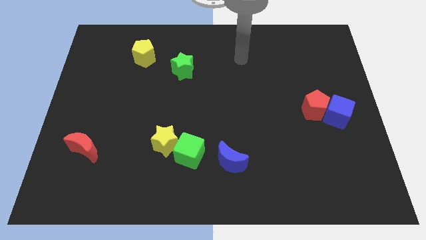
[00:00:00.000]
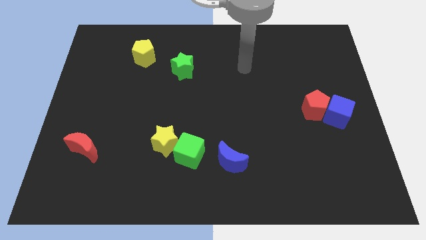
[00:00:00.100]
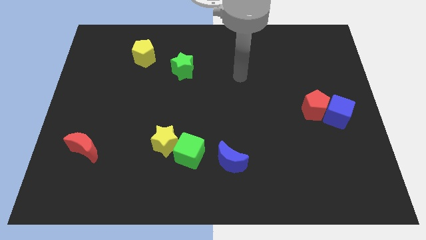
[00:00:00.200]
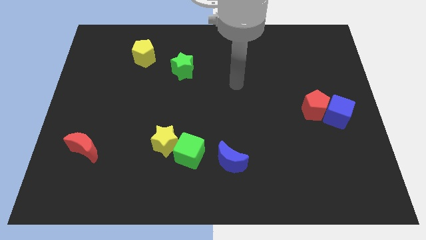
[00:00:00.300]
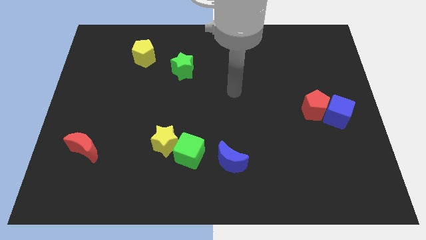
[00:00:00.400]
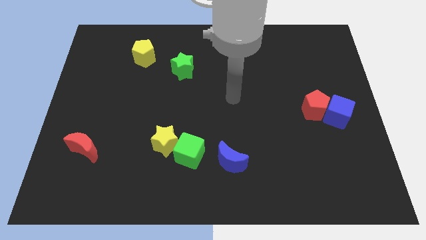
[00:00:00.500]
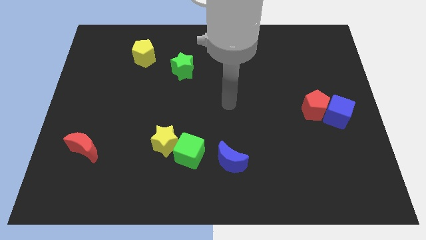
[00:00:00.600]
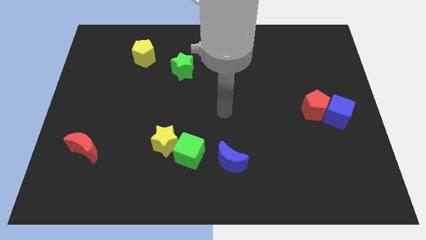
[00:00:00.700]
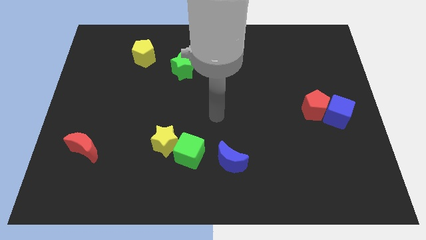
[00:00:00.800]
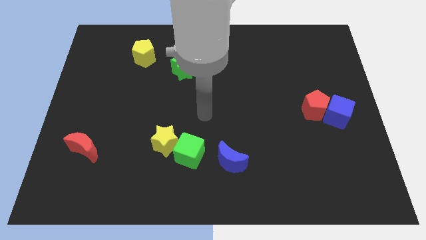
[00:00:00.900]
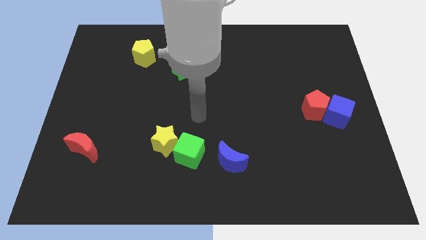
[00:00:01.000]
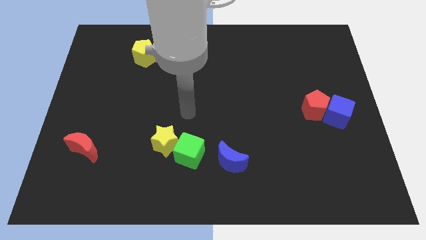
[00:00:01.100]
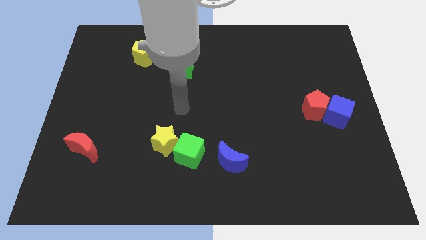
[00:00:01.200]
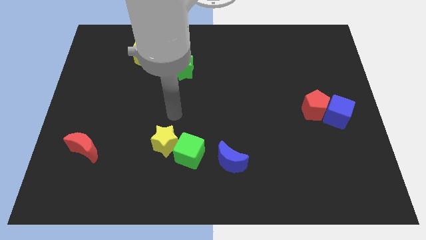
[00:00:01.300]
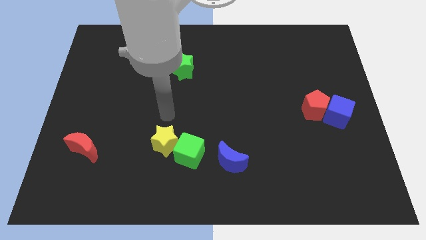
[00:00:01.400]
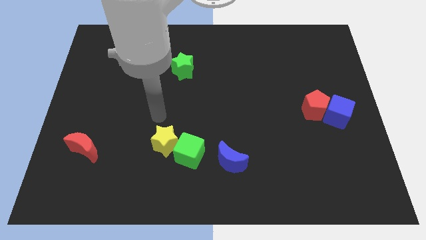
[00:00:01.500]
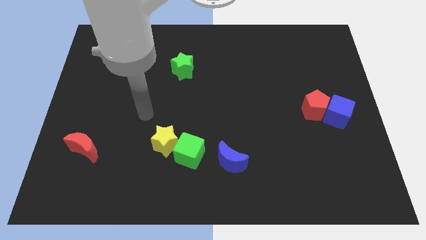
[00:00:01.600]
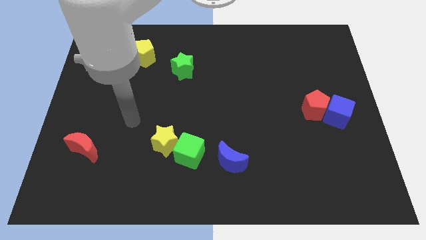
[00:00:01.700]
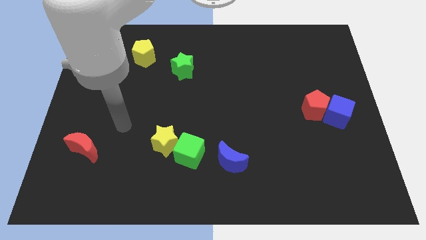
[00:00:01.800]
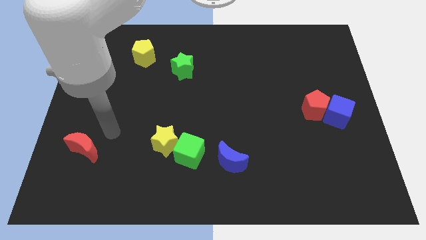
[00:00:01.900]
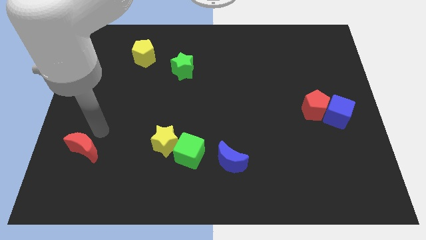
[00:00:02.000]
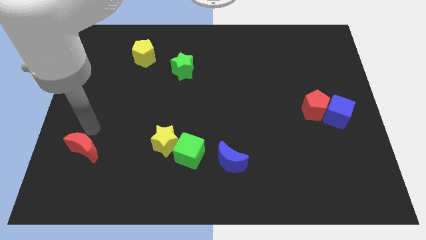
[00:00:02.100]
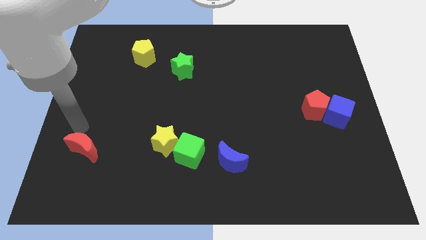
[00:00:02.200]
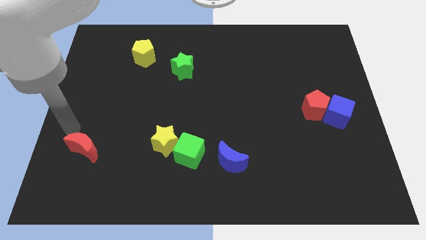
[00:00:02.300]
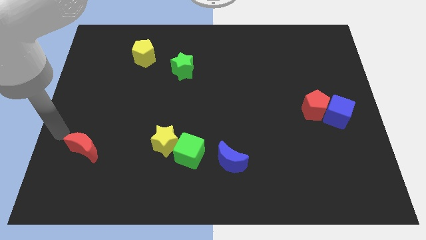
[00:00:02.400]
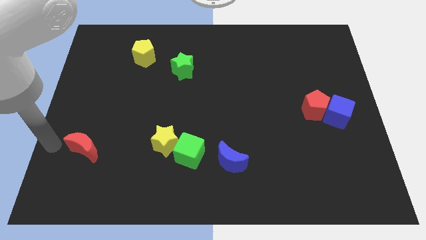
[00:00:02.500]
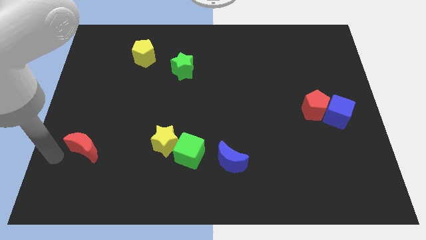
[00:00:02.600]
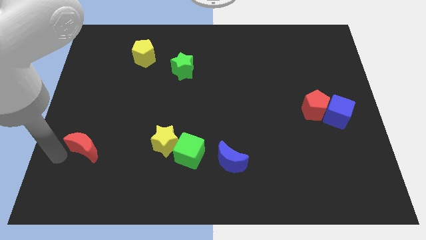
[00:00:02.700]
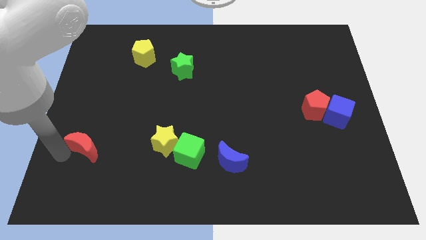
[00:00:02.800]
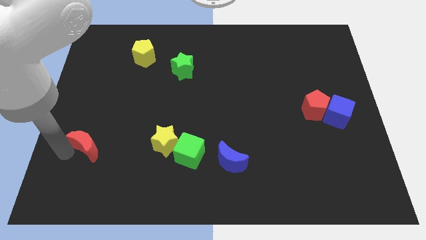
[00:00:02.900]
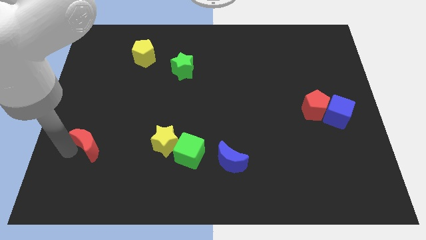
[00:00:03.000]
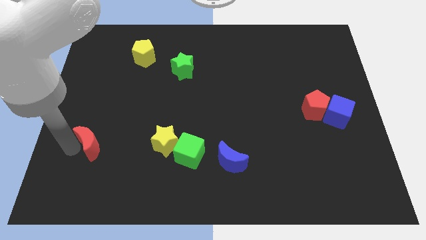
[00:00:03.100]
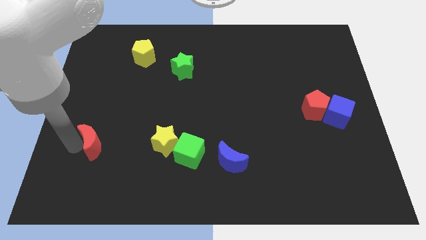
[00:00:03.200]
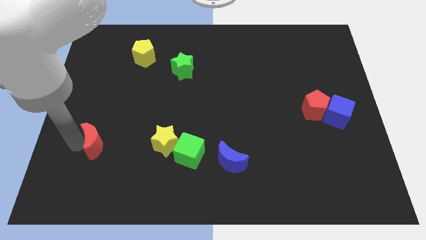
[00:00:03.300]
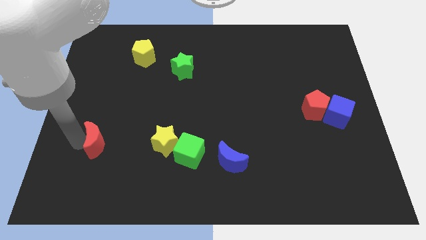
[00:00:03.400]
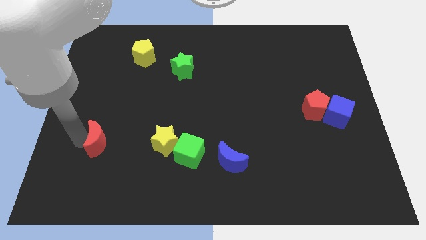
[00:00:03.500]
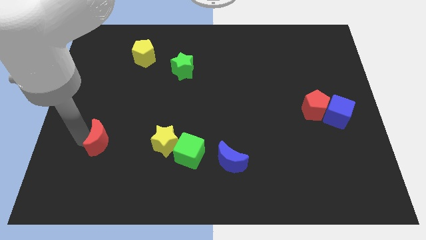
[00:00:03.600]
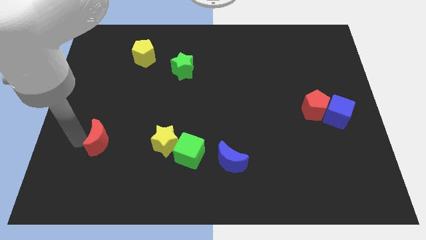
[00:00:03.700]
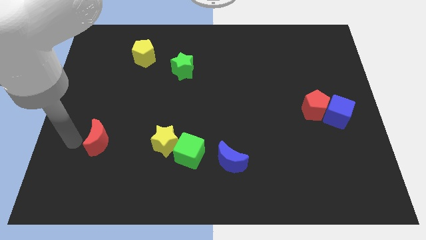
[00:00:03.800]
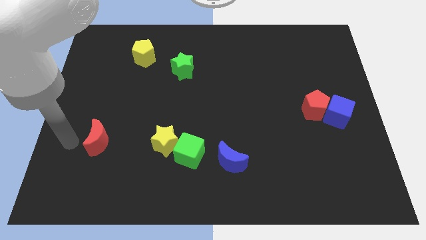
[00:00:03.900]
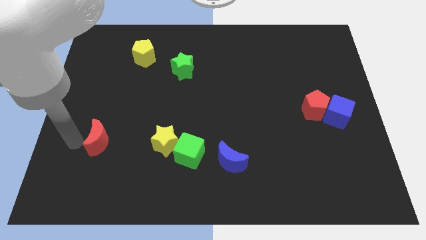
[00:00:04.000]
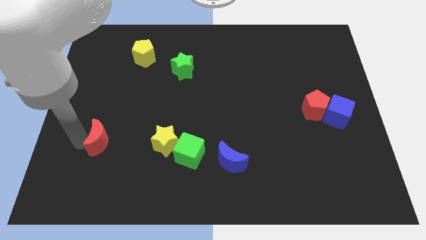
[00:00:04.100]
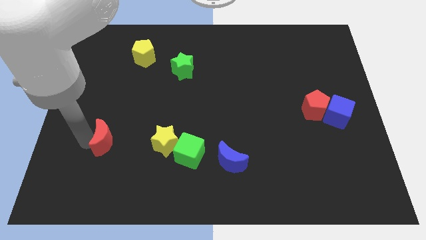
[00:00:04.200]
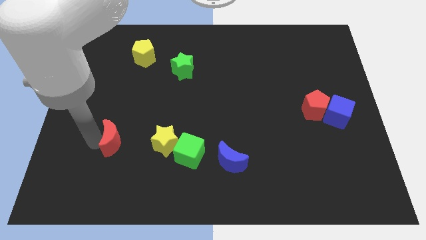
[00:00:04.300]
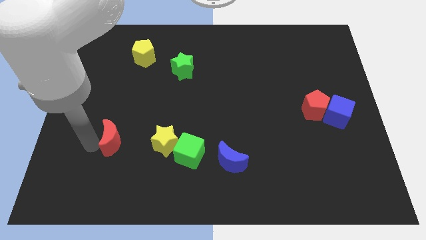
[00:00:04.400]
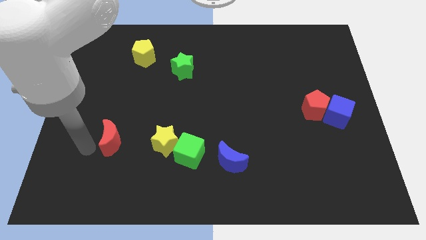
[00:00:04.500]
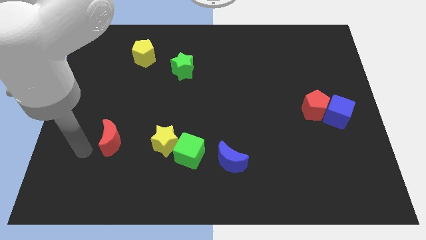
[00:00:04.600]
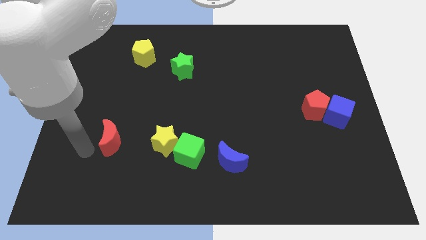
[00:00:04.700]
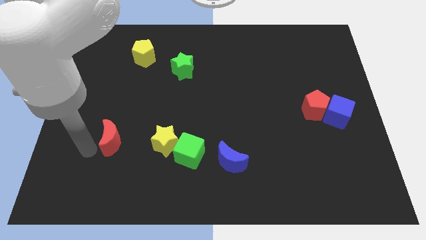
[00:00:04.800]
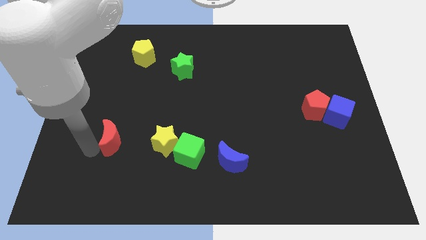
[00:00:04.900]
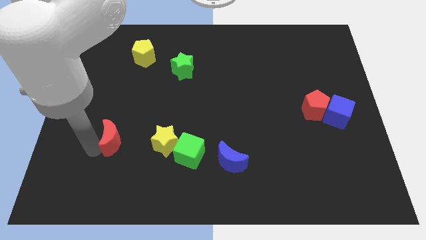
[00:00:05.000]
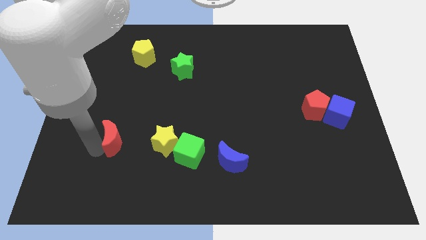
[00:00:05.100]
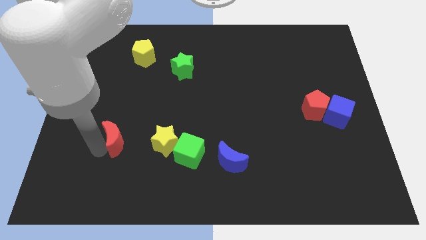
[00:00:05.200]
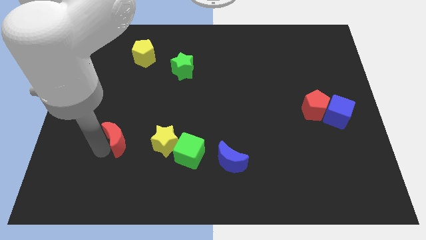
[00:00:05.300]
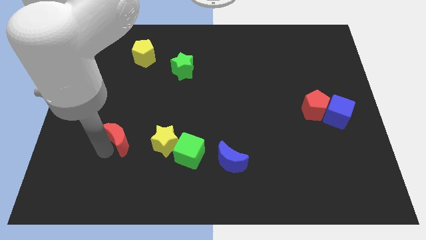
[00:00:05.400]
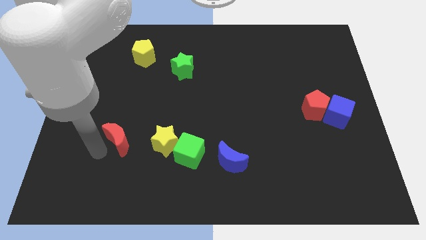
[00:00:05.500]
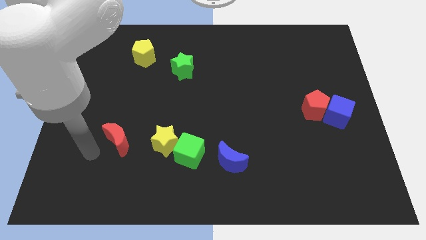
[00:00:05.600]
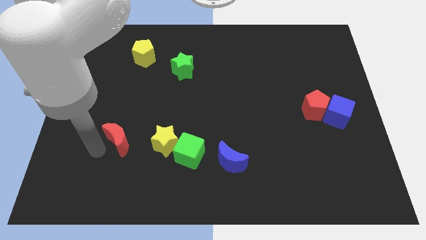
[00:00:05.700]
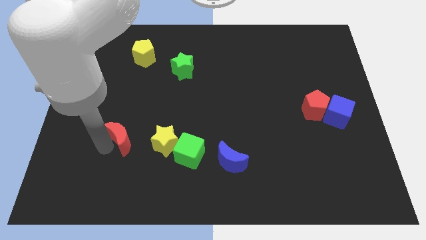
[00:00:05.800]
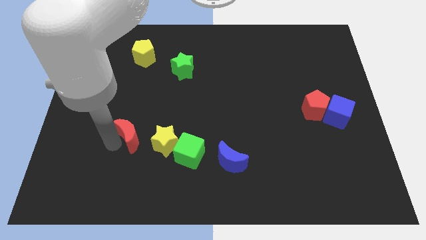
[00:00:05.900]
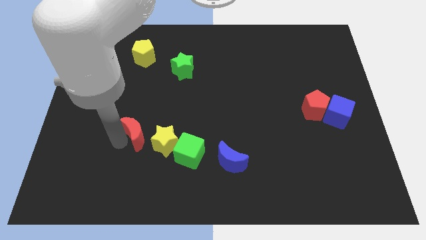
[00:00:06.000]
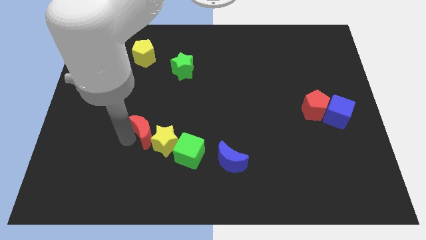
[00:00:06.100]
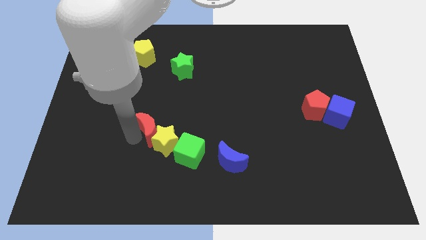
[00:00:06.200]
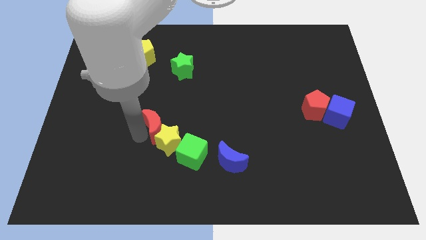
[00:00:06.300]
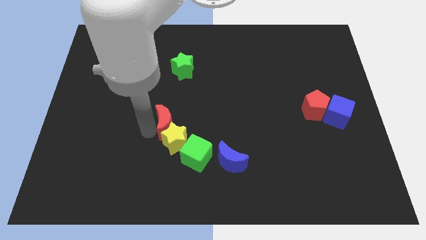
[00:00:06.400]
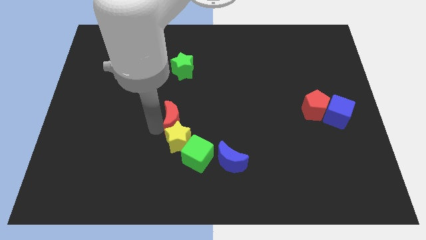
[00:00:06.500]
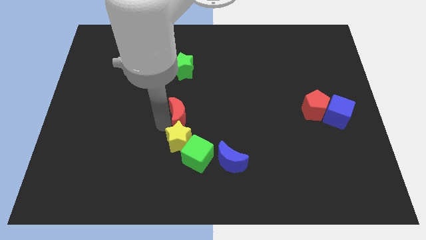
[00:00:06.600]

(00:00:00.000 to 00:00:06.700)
slide the red moon to the top side of the green cube

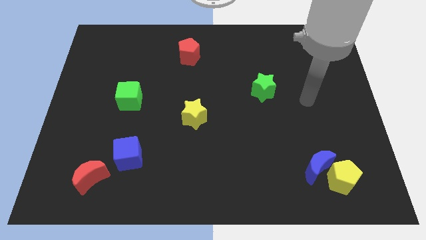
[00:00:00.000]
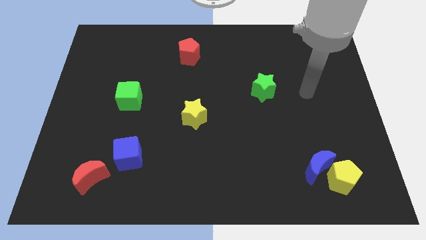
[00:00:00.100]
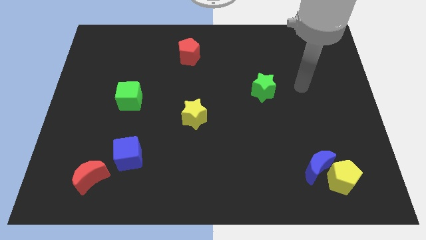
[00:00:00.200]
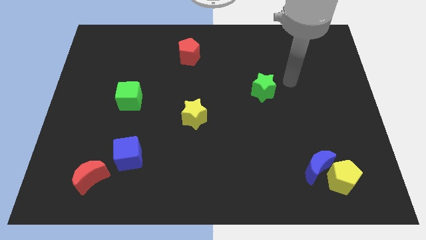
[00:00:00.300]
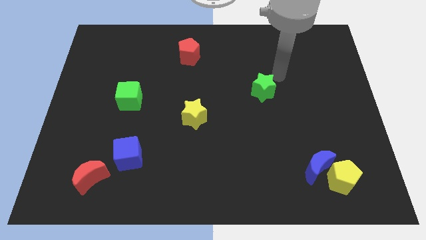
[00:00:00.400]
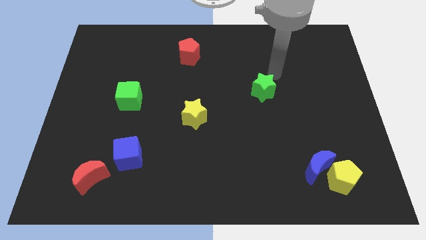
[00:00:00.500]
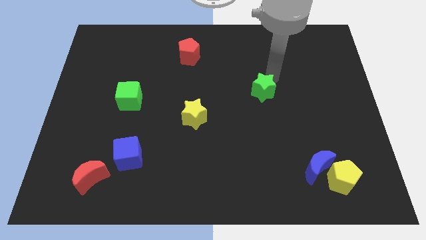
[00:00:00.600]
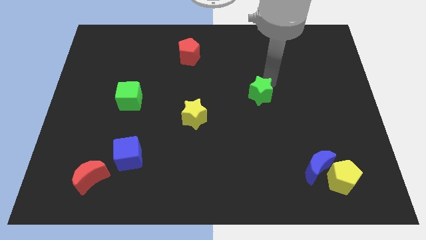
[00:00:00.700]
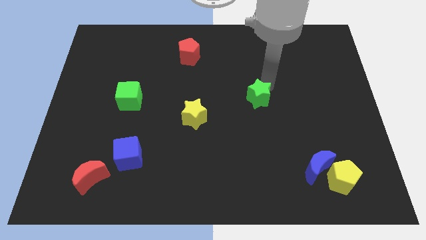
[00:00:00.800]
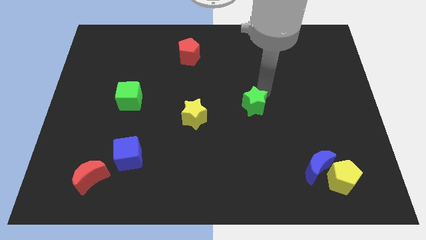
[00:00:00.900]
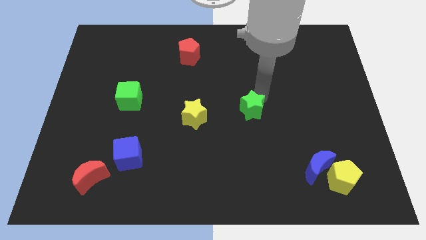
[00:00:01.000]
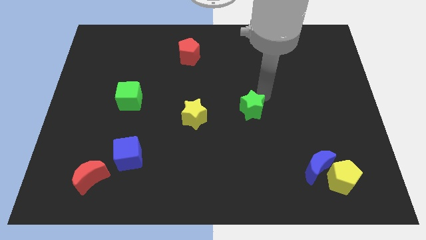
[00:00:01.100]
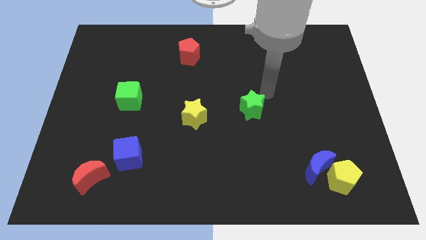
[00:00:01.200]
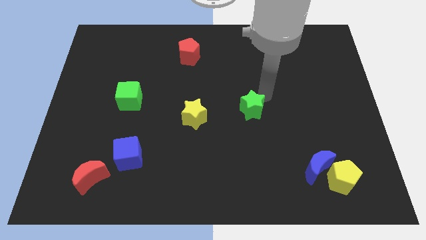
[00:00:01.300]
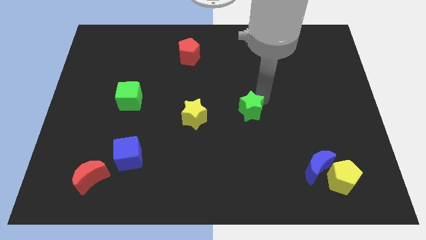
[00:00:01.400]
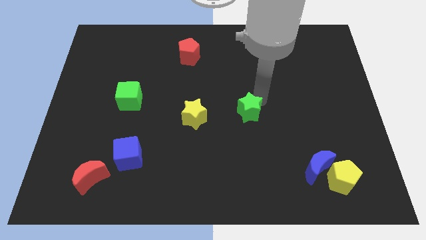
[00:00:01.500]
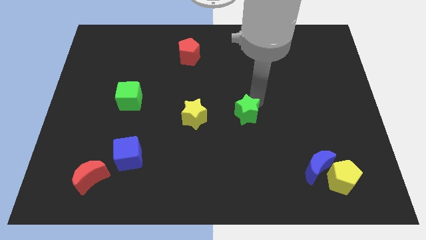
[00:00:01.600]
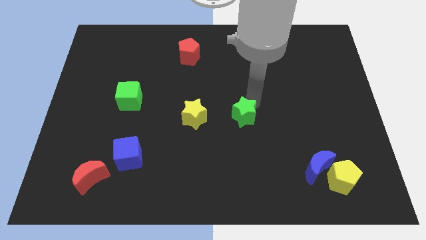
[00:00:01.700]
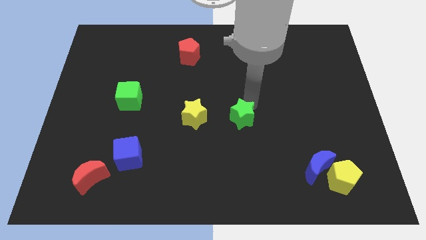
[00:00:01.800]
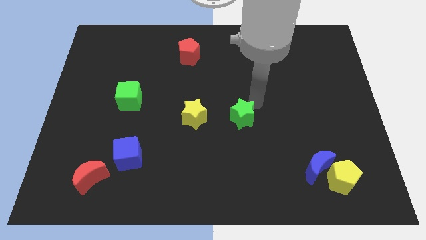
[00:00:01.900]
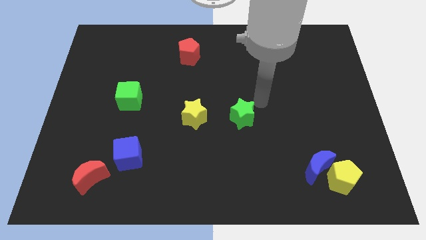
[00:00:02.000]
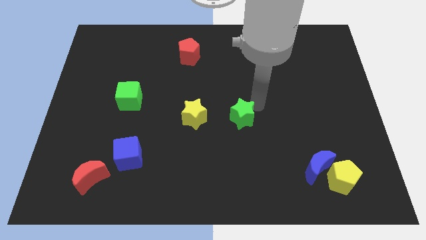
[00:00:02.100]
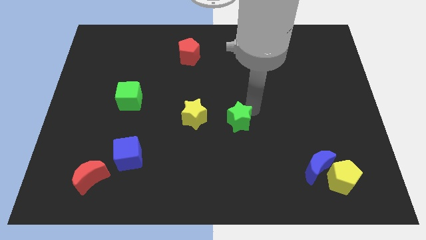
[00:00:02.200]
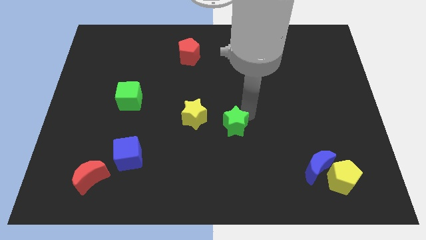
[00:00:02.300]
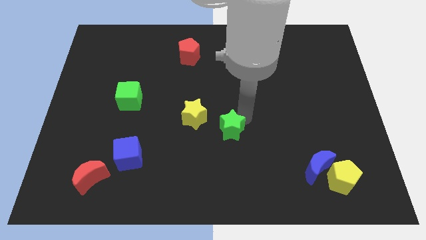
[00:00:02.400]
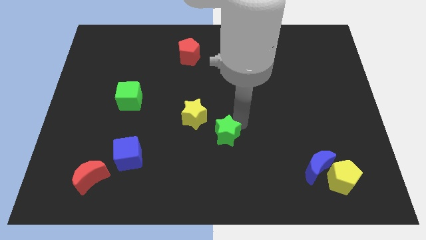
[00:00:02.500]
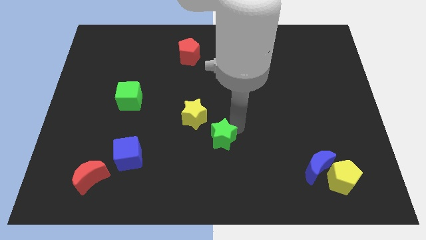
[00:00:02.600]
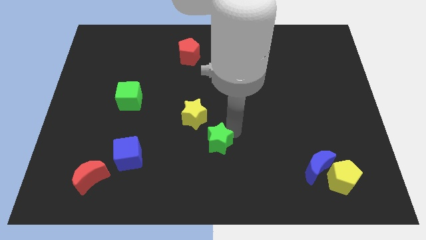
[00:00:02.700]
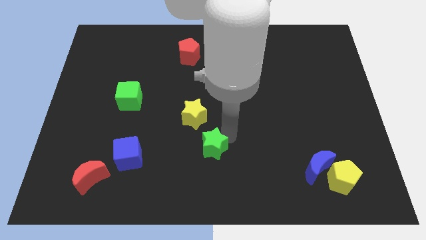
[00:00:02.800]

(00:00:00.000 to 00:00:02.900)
push the green star to the bottom of the yellow star
